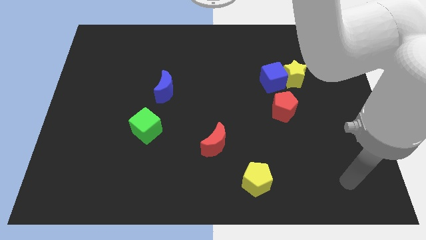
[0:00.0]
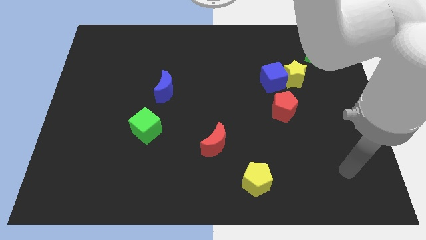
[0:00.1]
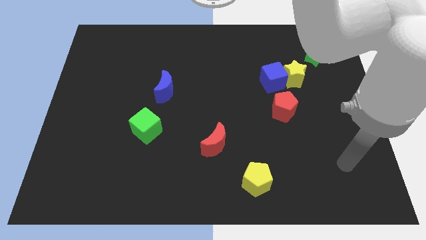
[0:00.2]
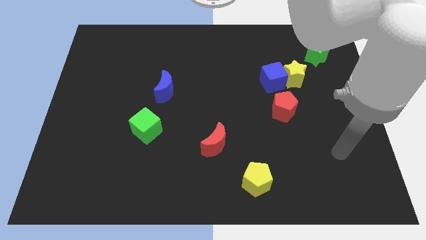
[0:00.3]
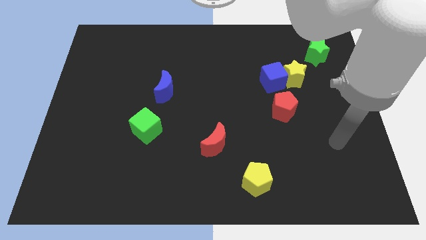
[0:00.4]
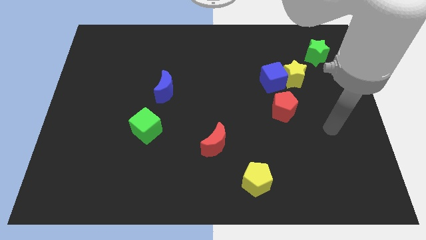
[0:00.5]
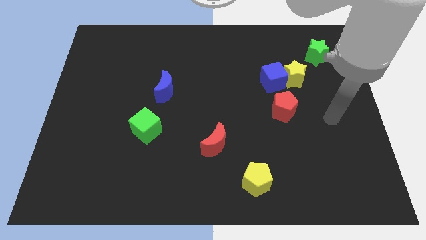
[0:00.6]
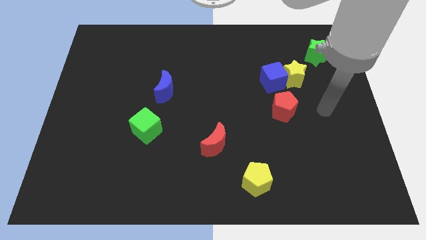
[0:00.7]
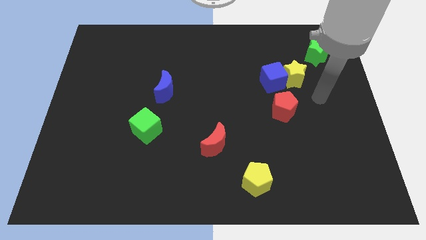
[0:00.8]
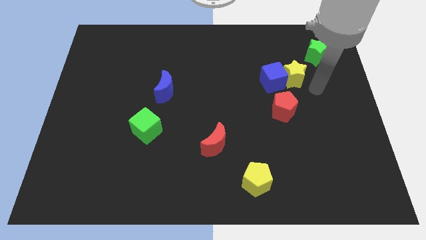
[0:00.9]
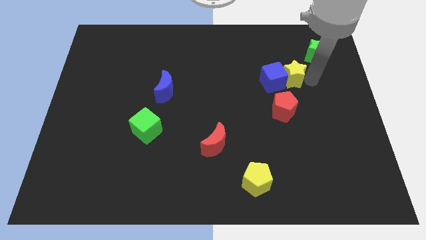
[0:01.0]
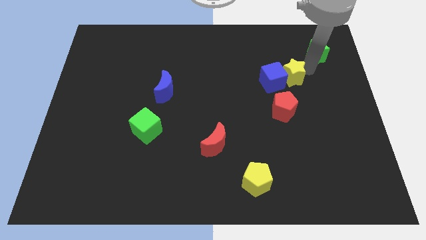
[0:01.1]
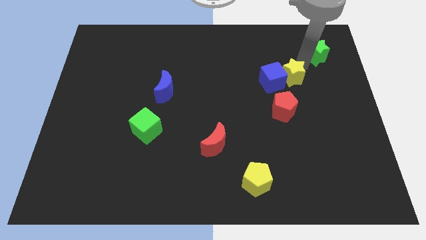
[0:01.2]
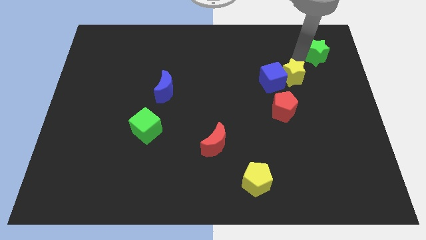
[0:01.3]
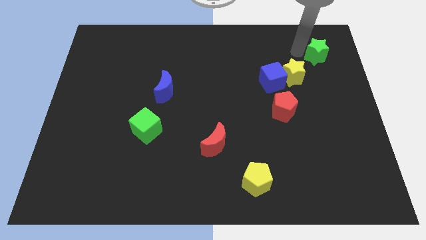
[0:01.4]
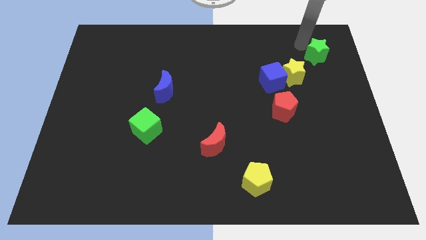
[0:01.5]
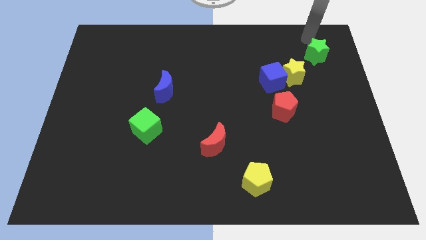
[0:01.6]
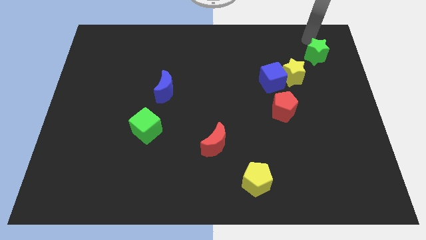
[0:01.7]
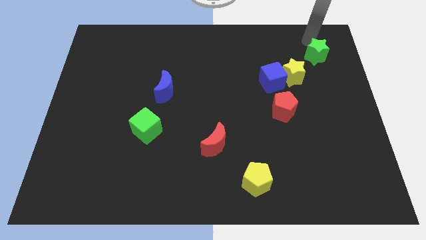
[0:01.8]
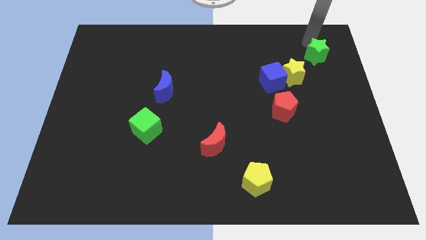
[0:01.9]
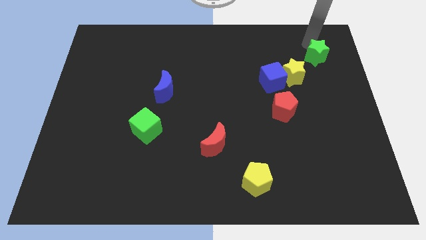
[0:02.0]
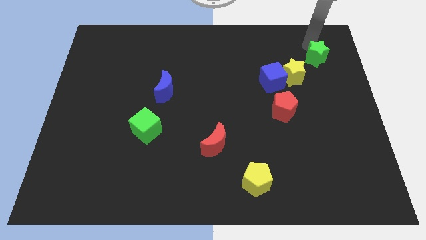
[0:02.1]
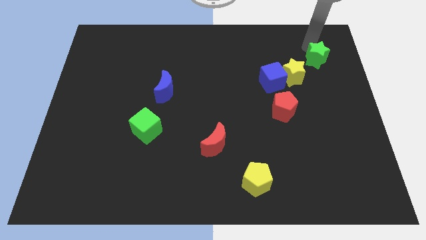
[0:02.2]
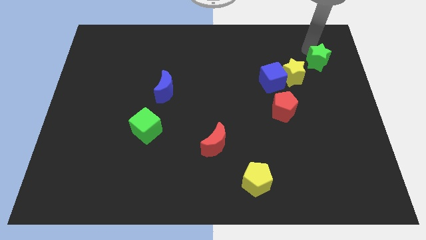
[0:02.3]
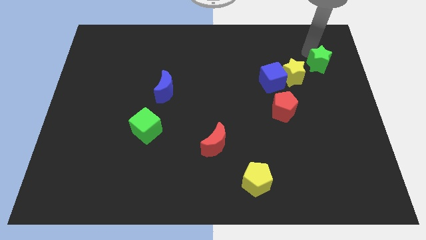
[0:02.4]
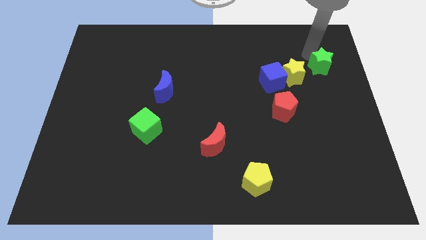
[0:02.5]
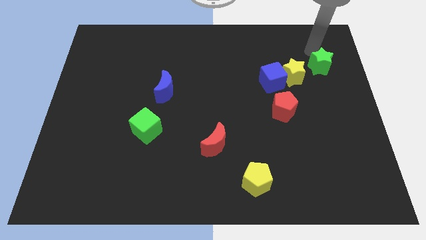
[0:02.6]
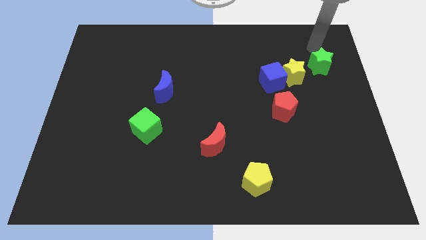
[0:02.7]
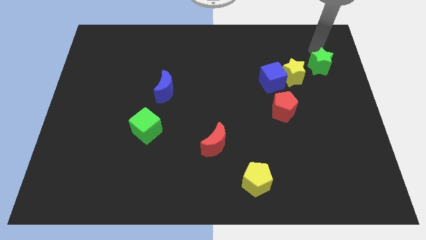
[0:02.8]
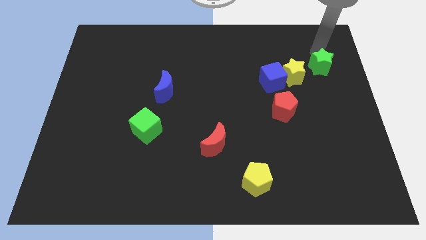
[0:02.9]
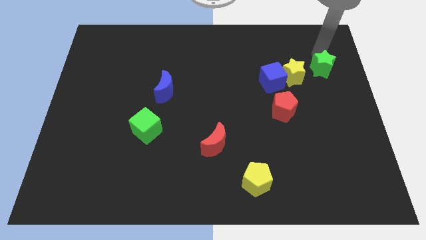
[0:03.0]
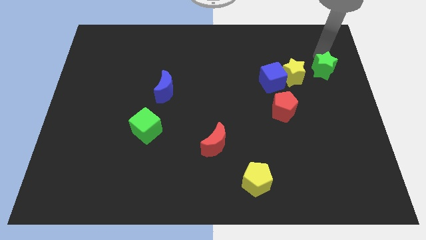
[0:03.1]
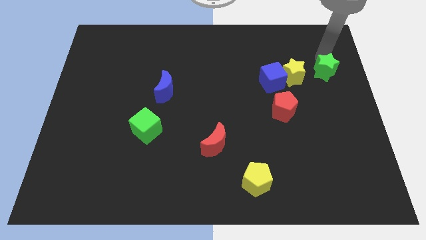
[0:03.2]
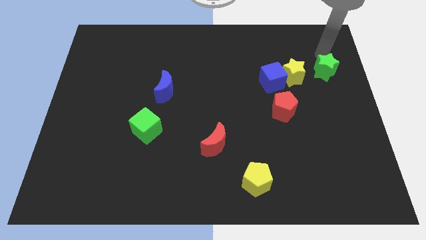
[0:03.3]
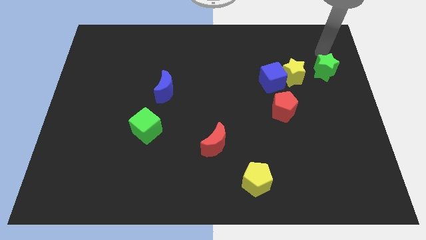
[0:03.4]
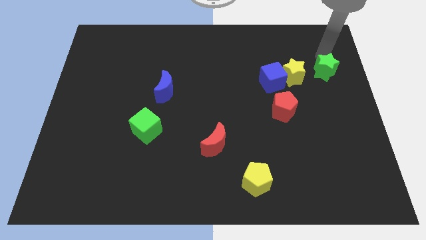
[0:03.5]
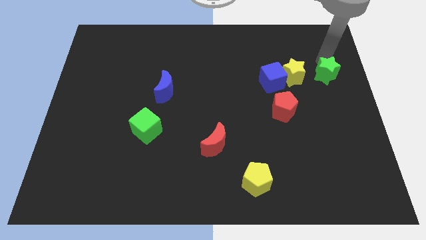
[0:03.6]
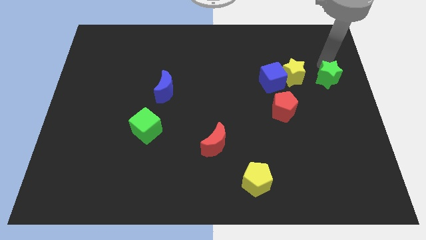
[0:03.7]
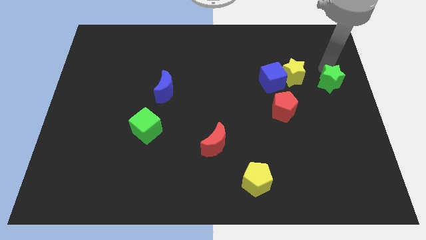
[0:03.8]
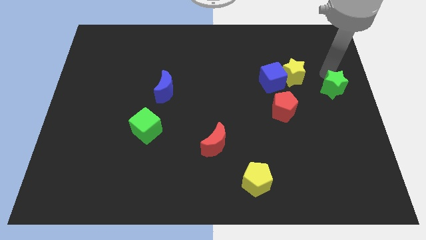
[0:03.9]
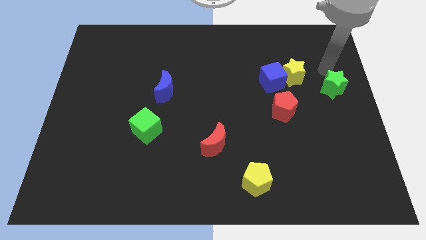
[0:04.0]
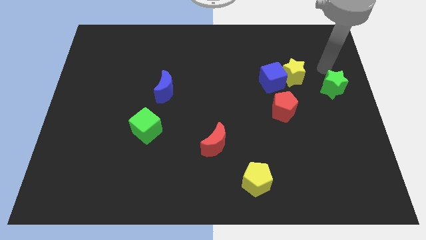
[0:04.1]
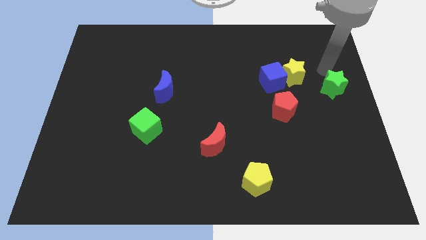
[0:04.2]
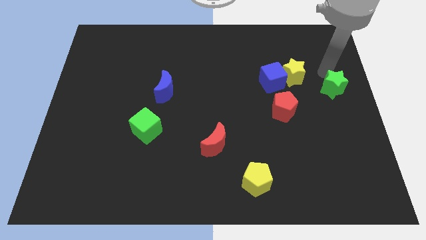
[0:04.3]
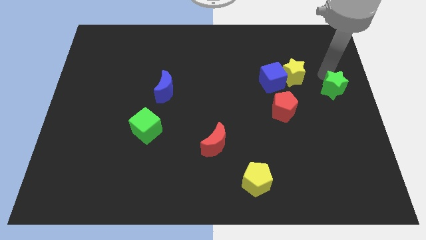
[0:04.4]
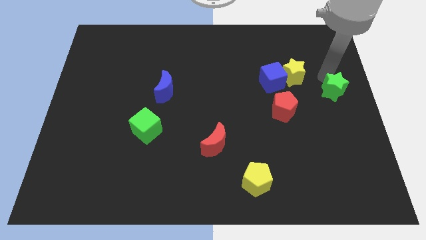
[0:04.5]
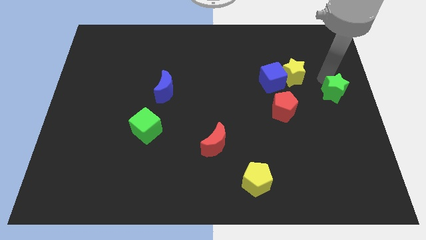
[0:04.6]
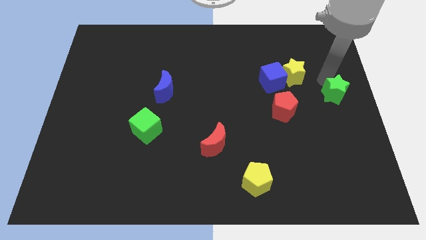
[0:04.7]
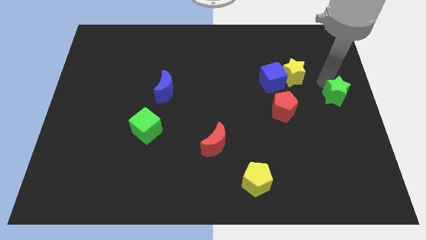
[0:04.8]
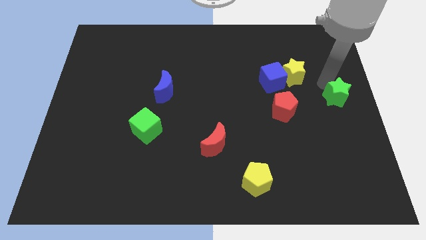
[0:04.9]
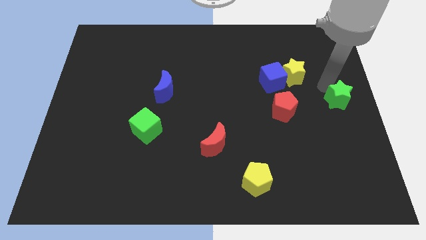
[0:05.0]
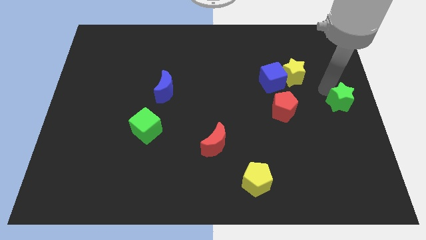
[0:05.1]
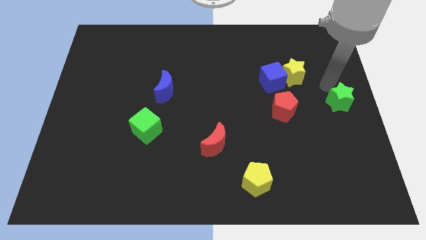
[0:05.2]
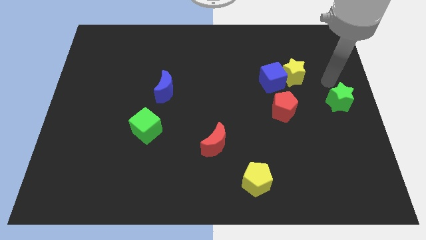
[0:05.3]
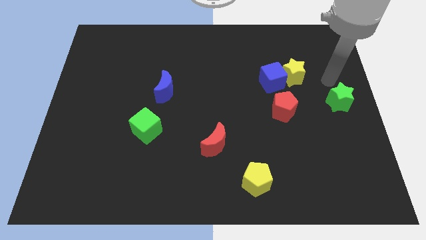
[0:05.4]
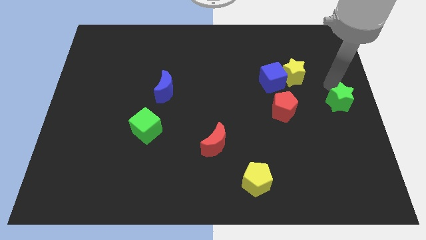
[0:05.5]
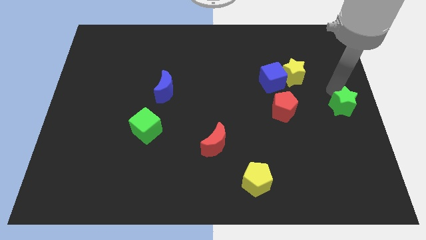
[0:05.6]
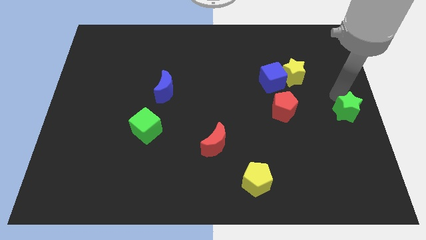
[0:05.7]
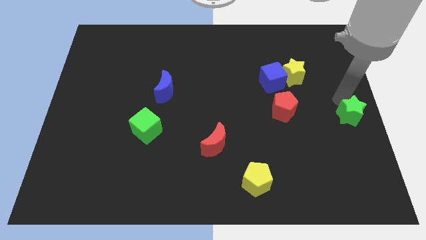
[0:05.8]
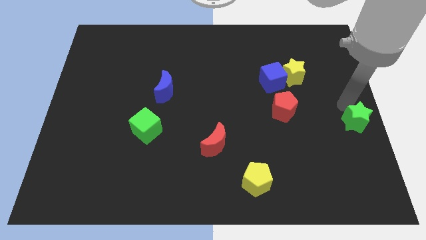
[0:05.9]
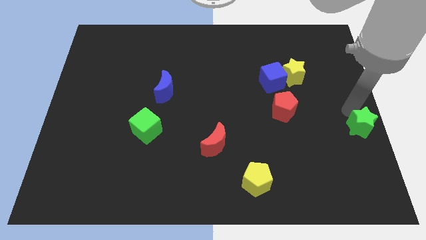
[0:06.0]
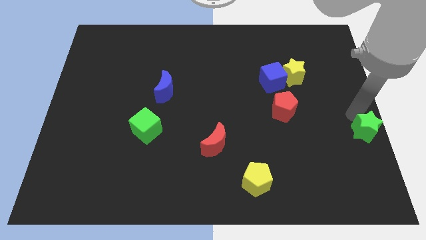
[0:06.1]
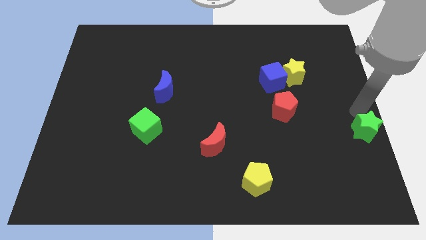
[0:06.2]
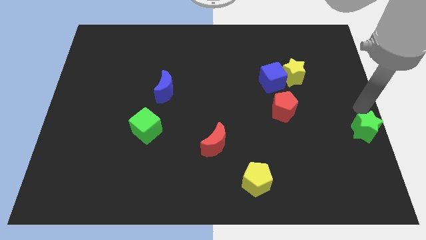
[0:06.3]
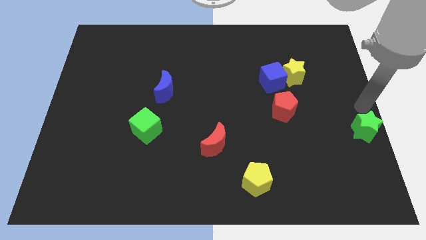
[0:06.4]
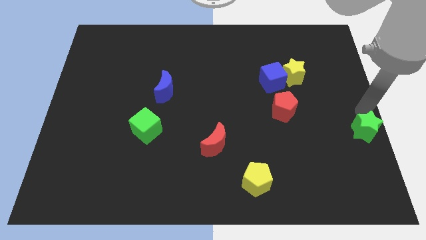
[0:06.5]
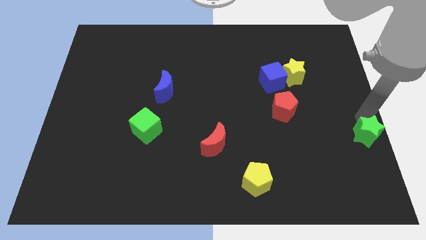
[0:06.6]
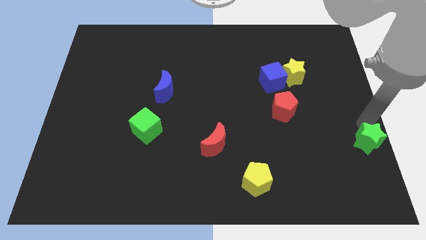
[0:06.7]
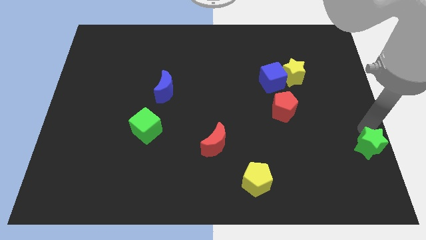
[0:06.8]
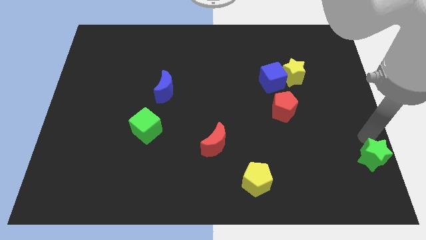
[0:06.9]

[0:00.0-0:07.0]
move the green star to the bottom right corner
